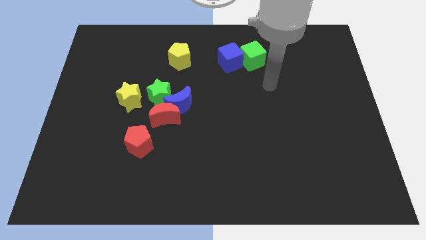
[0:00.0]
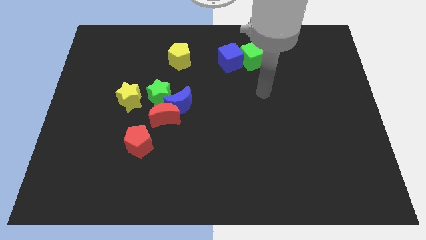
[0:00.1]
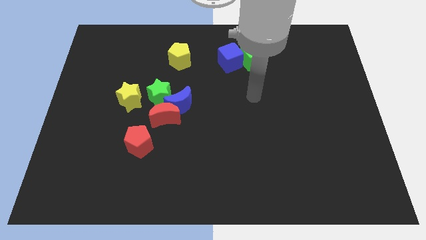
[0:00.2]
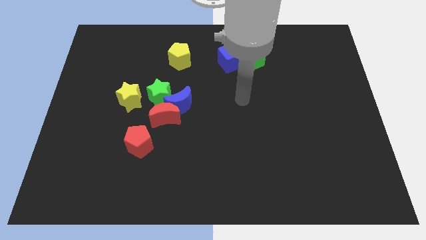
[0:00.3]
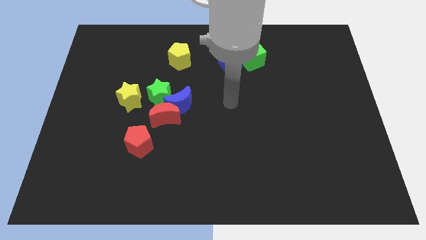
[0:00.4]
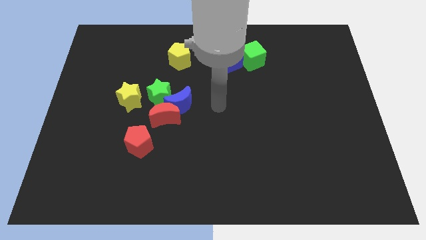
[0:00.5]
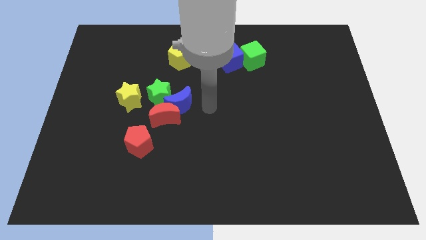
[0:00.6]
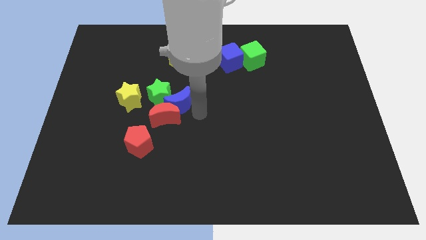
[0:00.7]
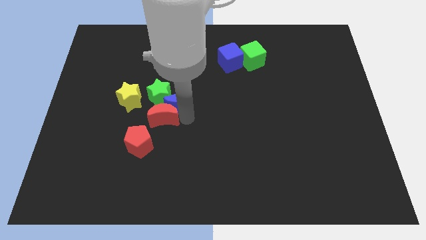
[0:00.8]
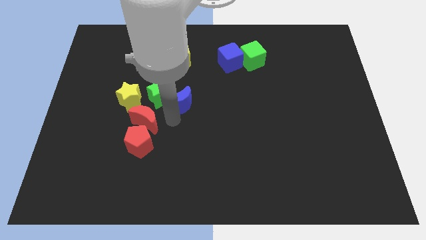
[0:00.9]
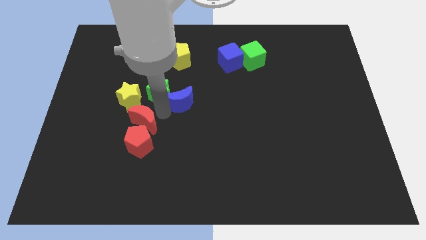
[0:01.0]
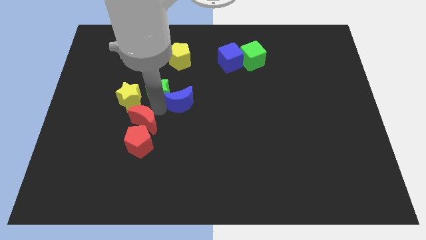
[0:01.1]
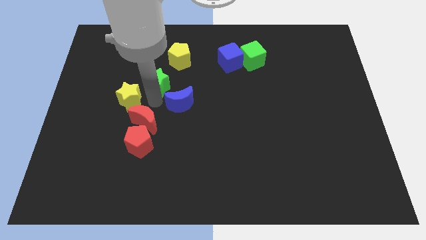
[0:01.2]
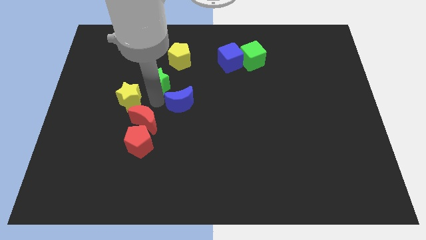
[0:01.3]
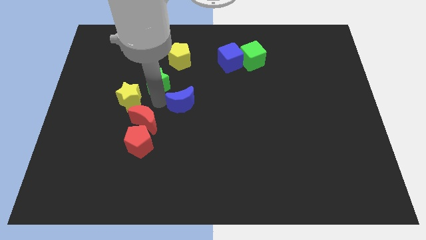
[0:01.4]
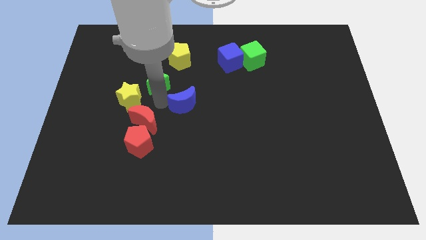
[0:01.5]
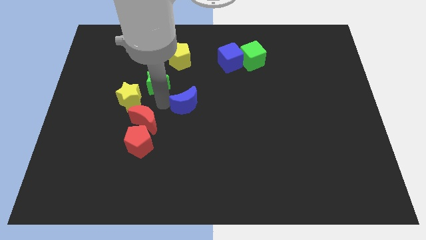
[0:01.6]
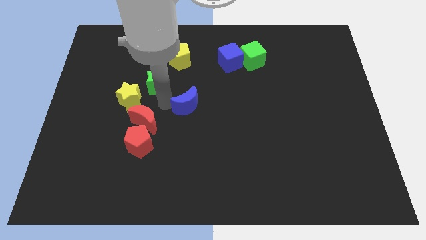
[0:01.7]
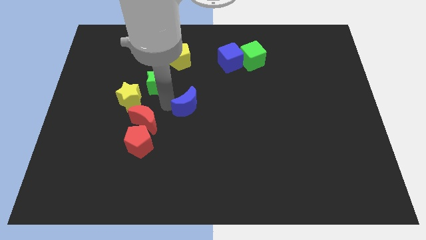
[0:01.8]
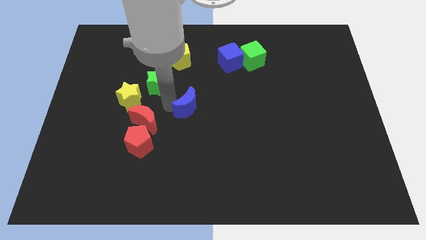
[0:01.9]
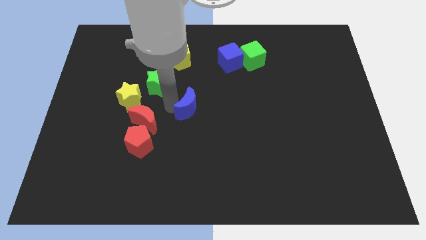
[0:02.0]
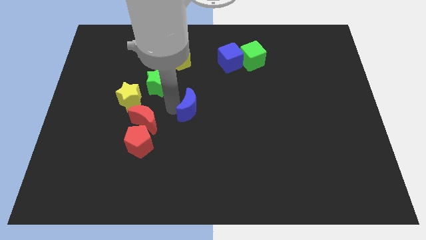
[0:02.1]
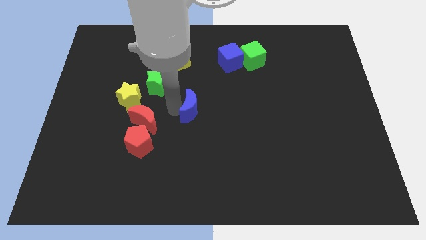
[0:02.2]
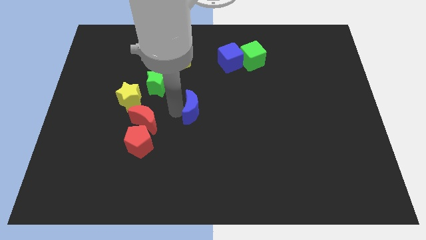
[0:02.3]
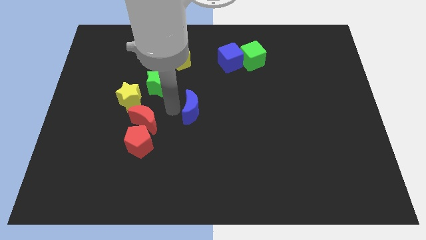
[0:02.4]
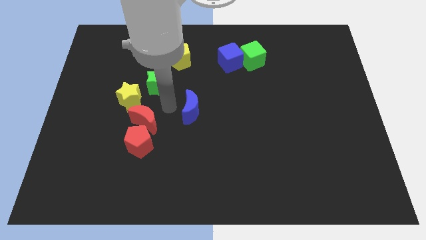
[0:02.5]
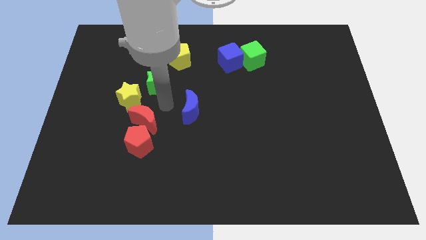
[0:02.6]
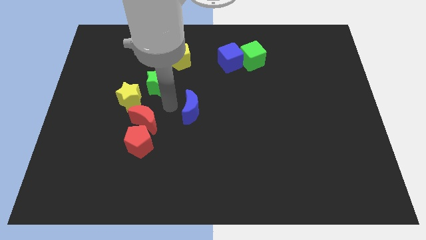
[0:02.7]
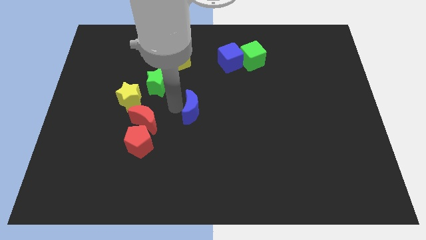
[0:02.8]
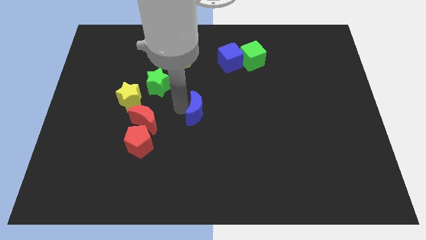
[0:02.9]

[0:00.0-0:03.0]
move the blue moon away from the red moon and green star

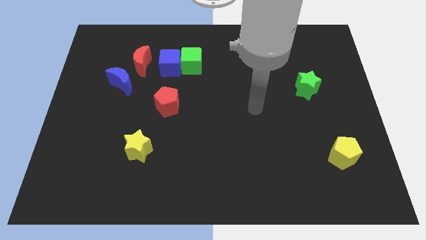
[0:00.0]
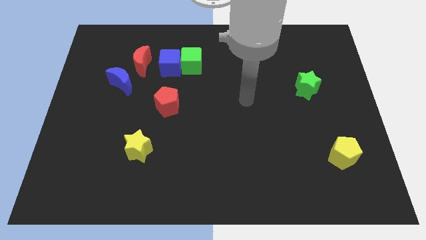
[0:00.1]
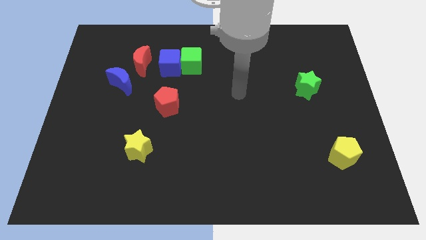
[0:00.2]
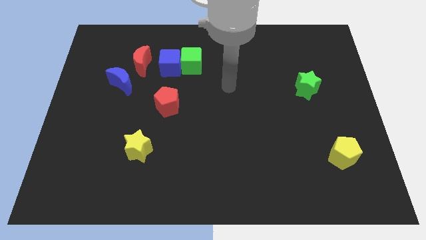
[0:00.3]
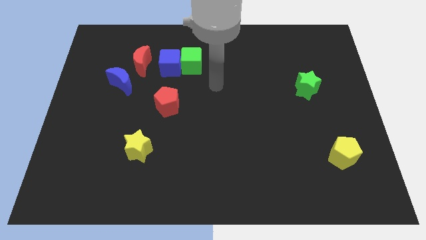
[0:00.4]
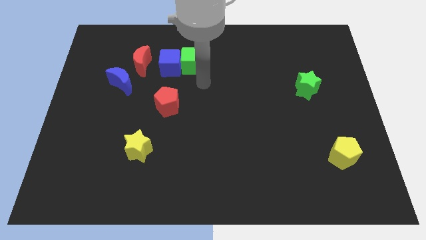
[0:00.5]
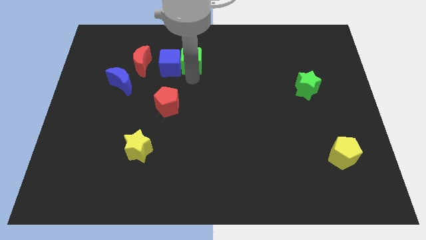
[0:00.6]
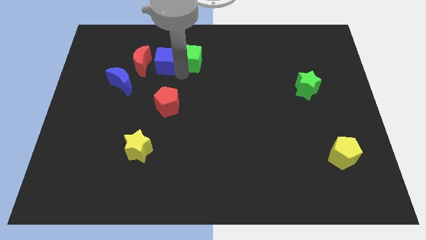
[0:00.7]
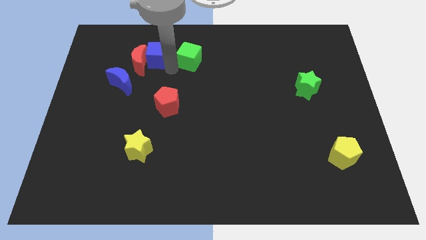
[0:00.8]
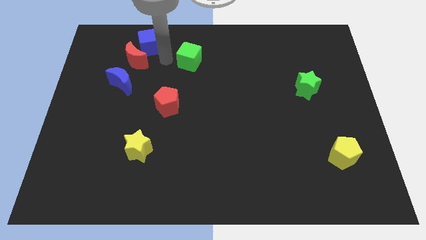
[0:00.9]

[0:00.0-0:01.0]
pull the green cube apart from the blue cube

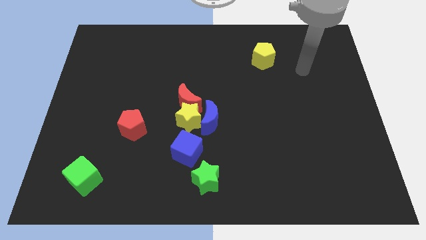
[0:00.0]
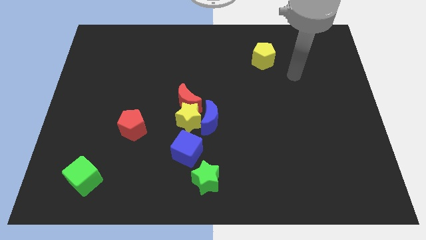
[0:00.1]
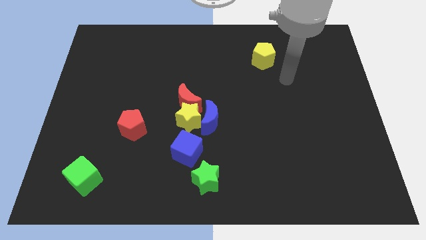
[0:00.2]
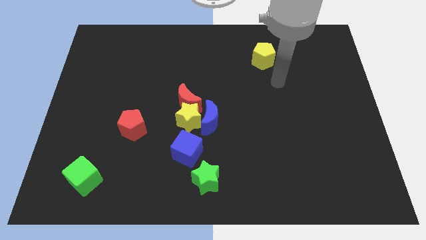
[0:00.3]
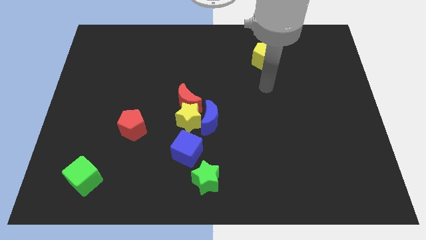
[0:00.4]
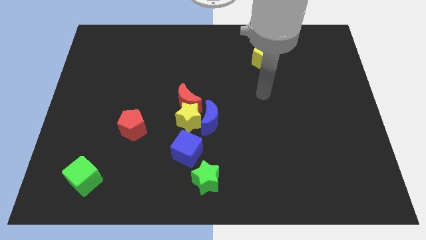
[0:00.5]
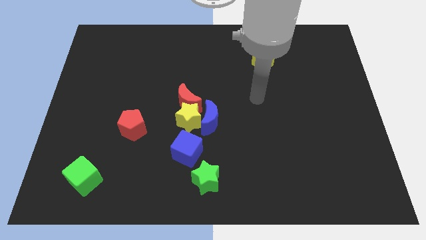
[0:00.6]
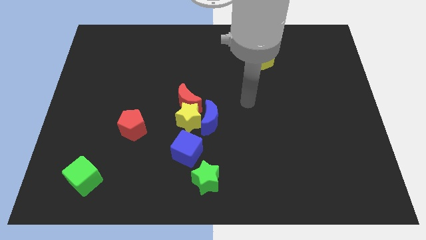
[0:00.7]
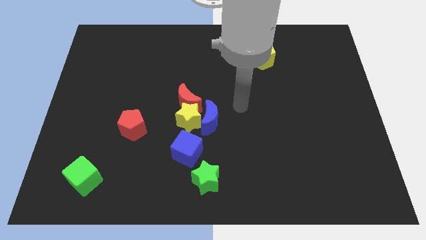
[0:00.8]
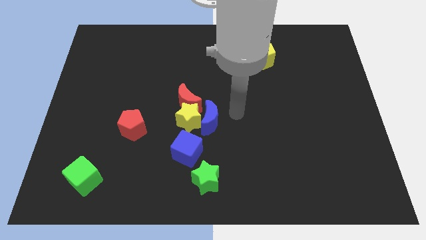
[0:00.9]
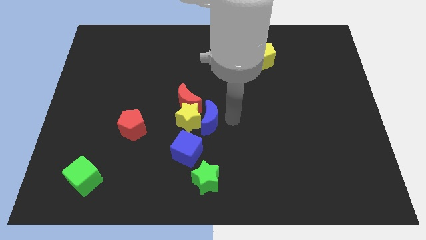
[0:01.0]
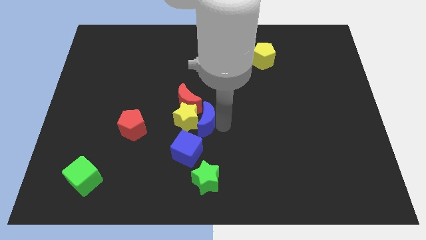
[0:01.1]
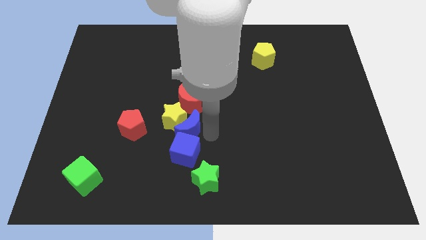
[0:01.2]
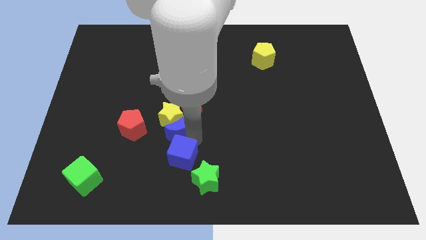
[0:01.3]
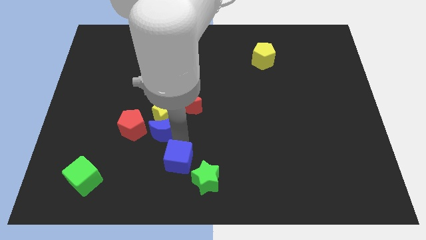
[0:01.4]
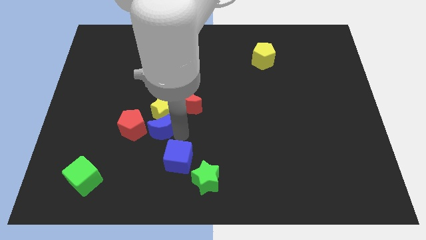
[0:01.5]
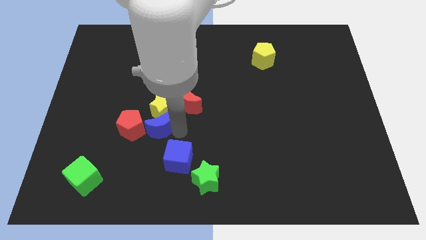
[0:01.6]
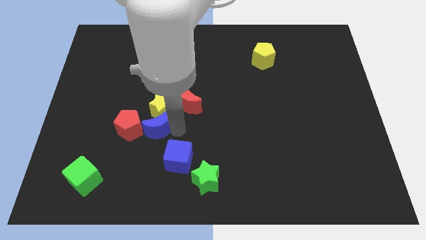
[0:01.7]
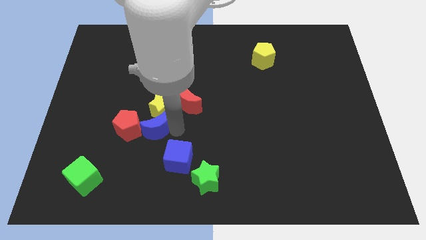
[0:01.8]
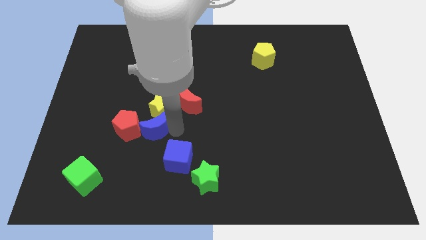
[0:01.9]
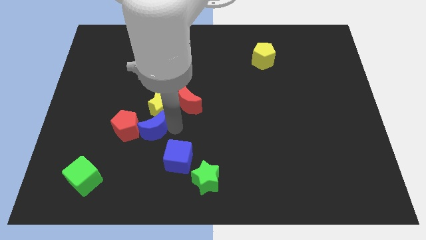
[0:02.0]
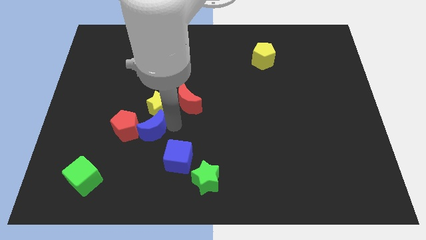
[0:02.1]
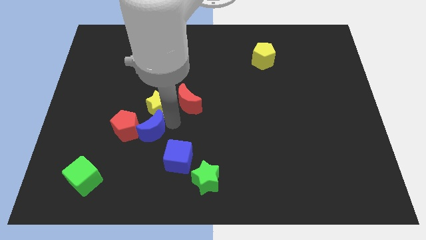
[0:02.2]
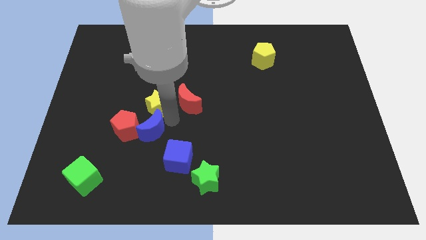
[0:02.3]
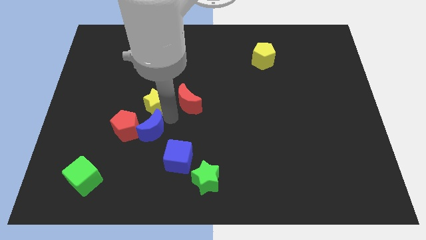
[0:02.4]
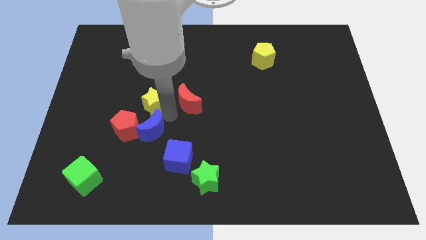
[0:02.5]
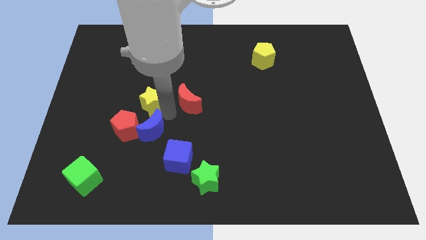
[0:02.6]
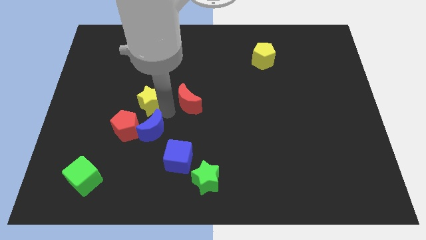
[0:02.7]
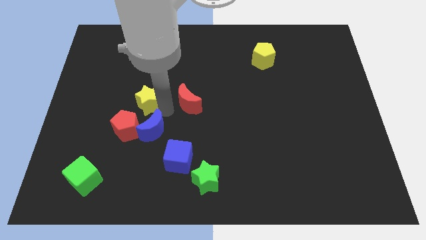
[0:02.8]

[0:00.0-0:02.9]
pull the yellow star apart from the blue moon, red moon, and blue cube

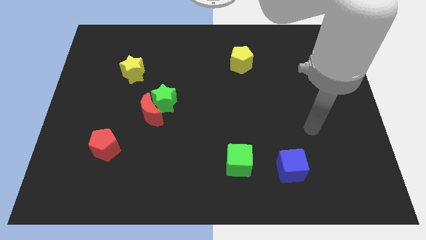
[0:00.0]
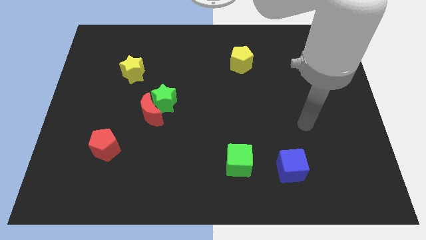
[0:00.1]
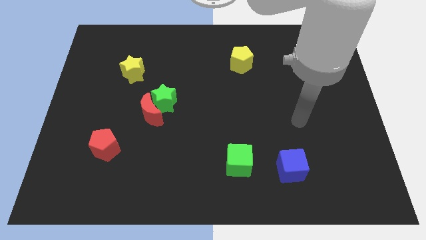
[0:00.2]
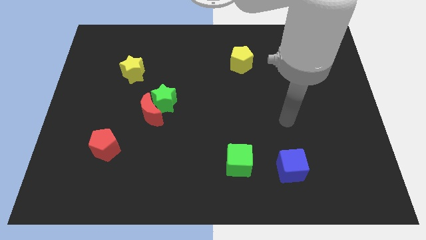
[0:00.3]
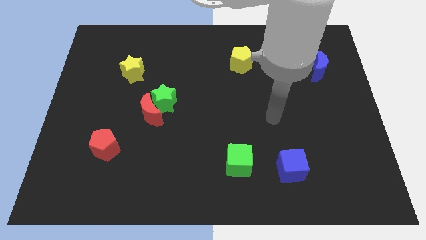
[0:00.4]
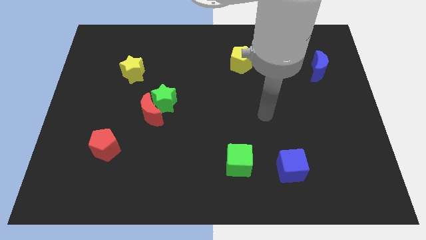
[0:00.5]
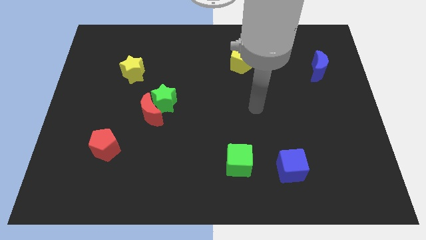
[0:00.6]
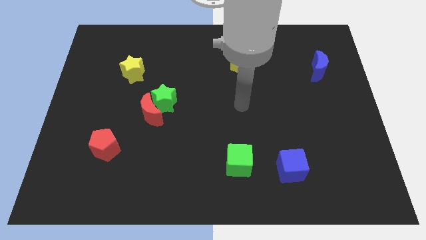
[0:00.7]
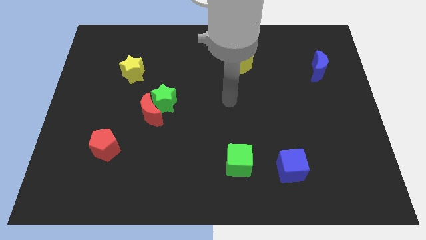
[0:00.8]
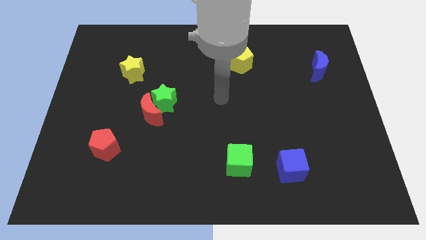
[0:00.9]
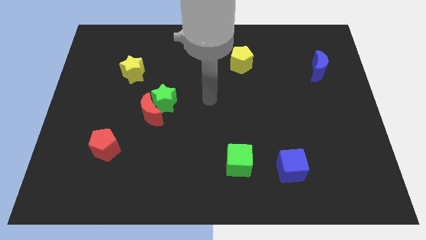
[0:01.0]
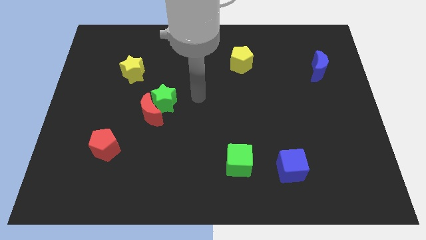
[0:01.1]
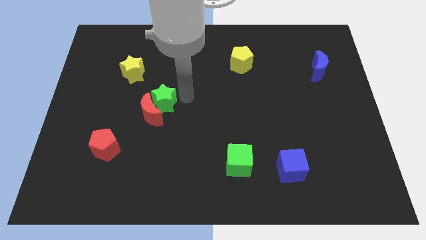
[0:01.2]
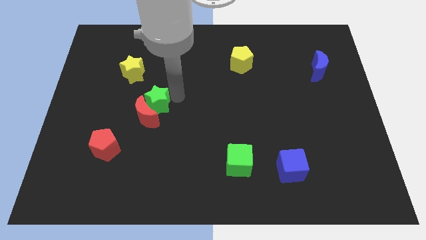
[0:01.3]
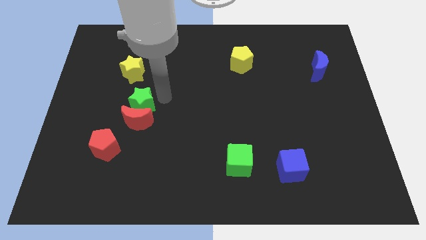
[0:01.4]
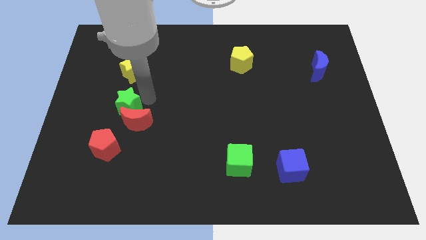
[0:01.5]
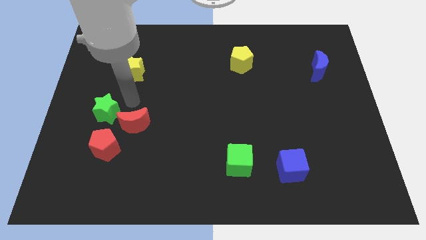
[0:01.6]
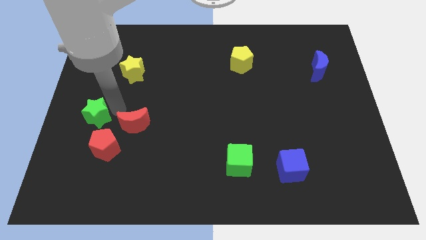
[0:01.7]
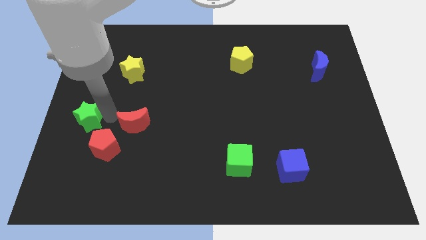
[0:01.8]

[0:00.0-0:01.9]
move the red moon away from the green star

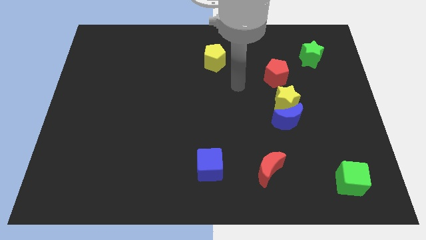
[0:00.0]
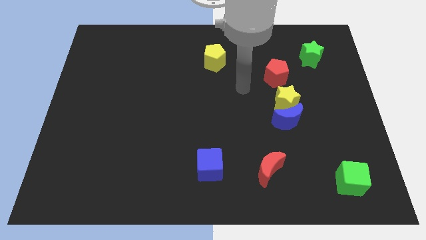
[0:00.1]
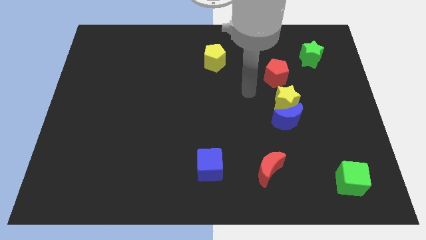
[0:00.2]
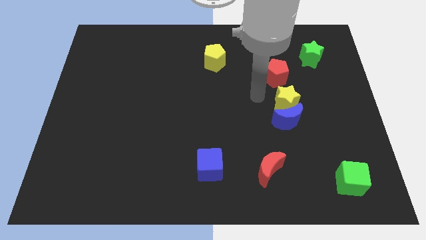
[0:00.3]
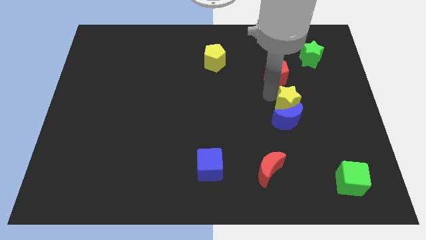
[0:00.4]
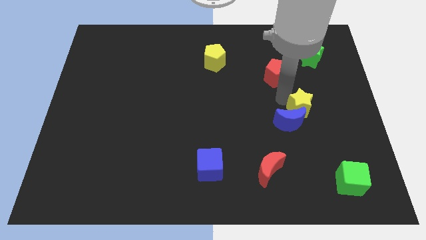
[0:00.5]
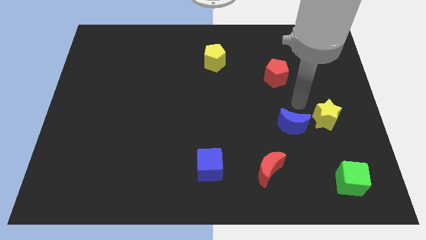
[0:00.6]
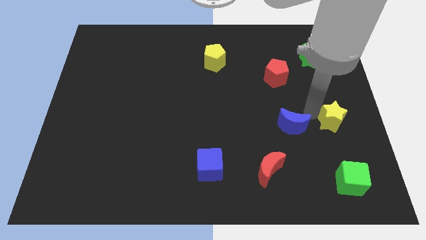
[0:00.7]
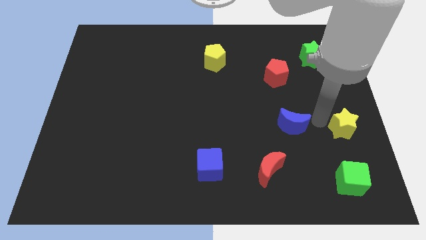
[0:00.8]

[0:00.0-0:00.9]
pull the blue moon apart from the yellow star
